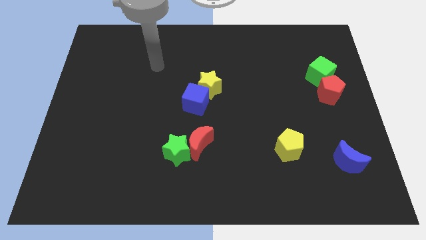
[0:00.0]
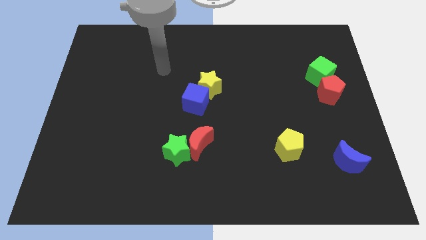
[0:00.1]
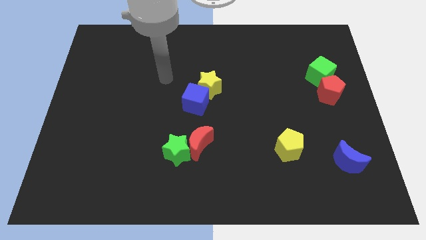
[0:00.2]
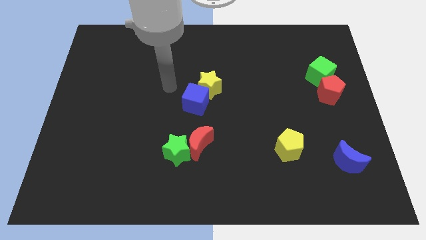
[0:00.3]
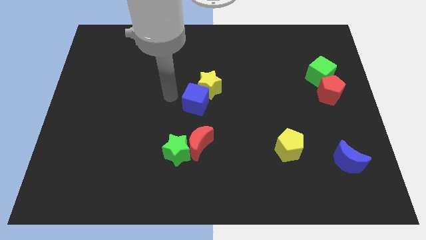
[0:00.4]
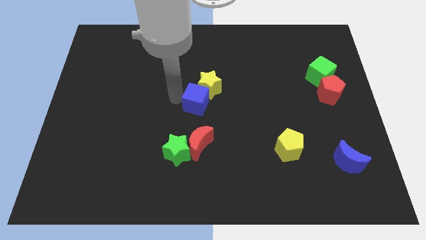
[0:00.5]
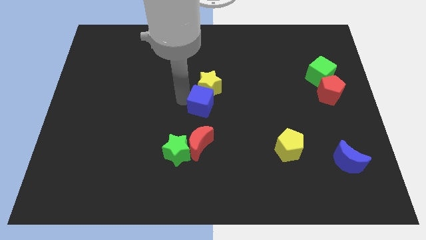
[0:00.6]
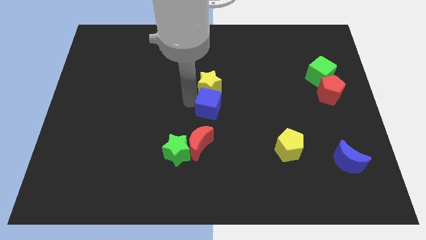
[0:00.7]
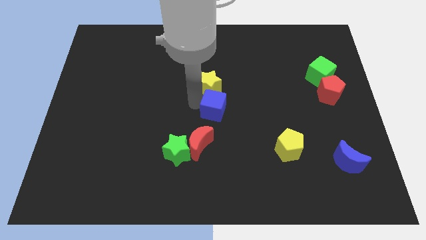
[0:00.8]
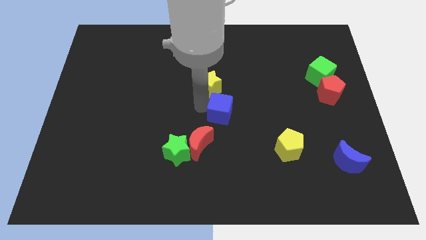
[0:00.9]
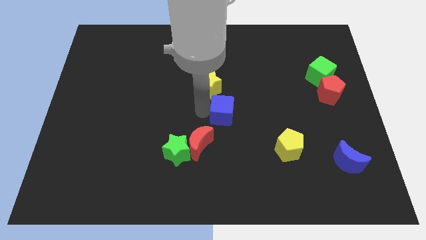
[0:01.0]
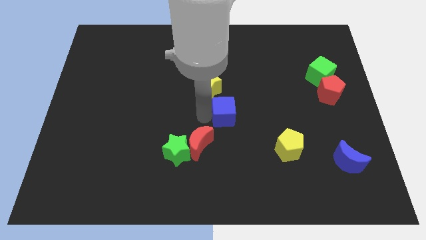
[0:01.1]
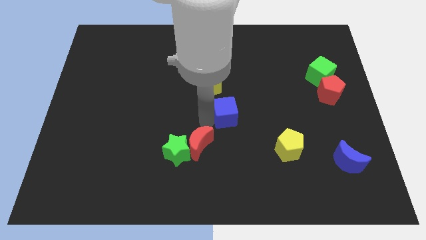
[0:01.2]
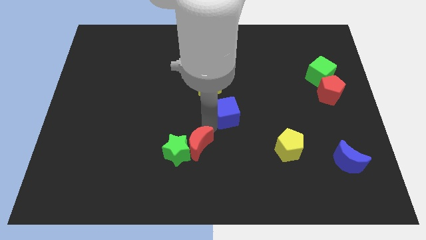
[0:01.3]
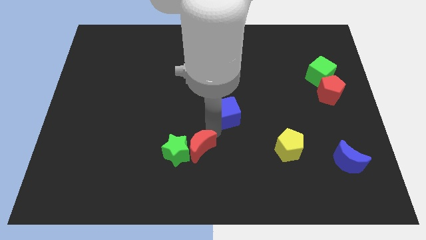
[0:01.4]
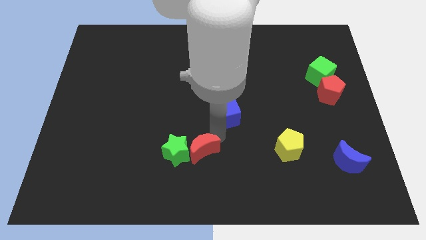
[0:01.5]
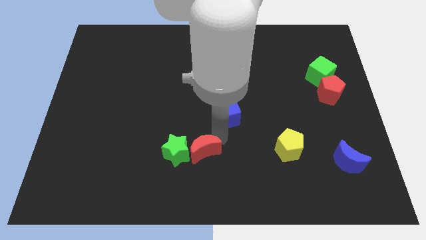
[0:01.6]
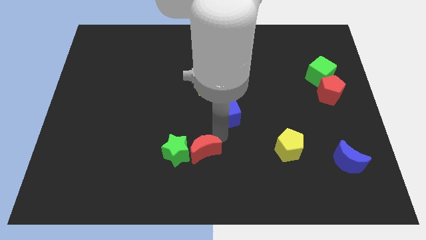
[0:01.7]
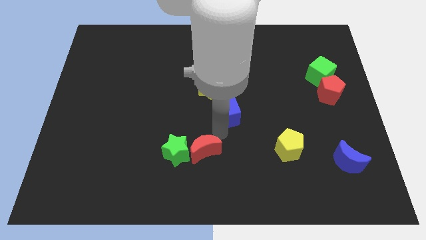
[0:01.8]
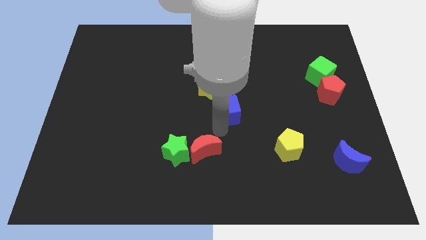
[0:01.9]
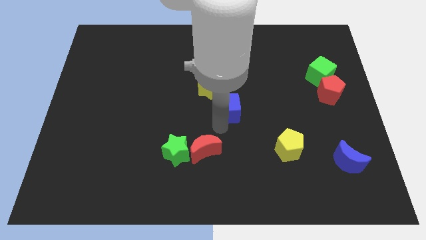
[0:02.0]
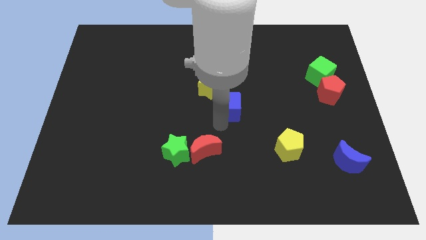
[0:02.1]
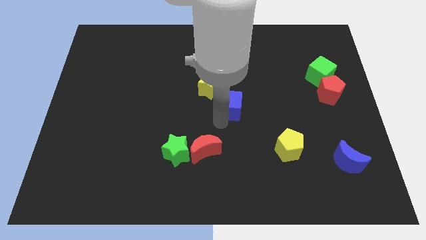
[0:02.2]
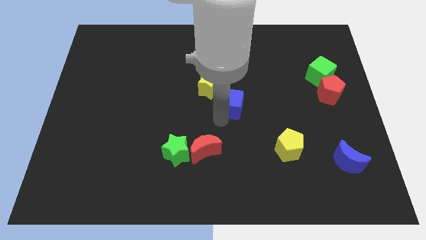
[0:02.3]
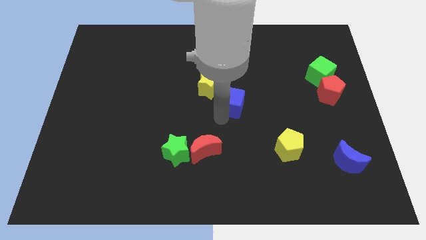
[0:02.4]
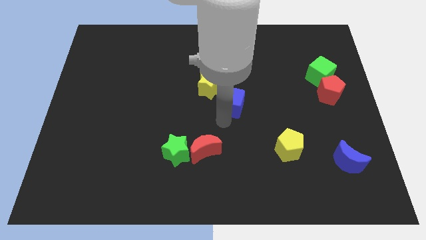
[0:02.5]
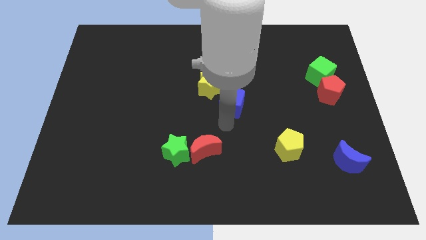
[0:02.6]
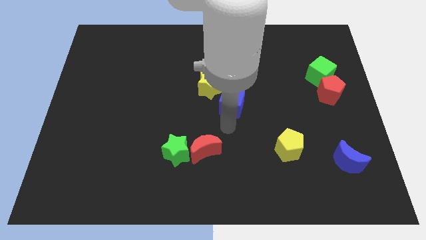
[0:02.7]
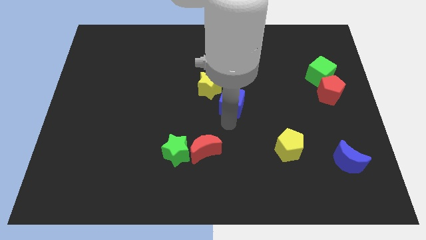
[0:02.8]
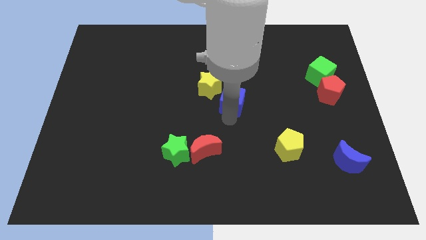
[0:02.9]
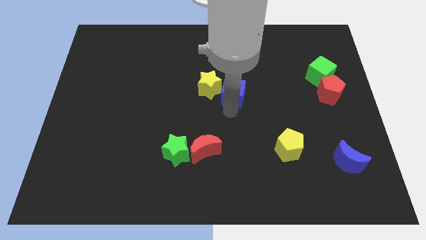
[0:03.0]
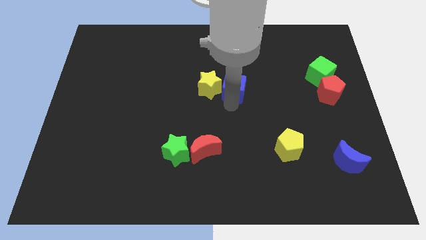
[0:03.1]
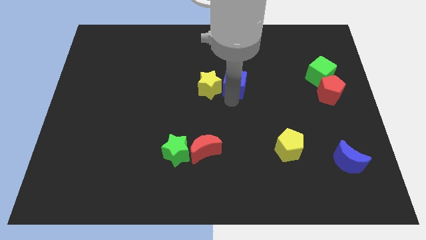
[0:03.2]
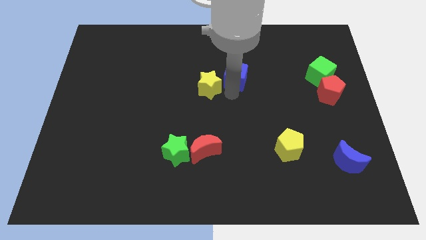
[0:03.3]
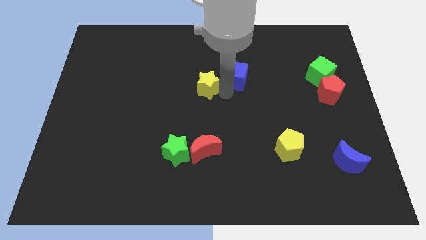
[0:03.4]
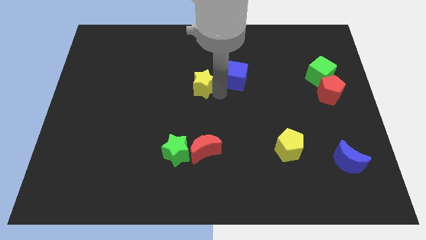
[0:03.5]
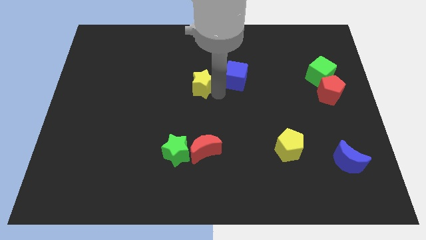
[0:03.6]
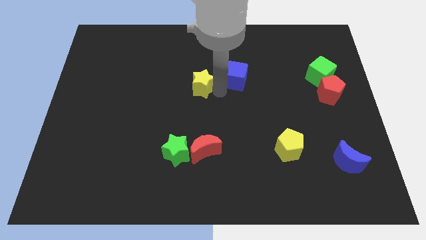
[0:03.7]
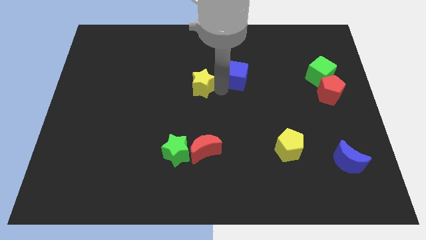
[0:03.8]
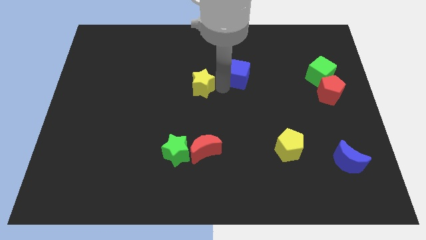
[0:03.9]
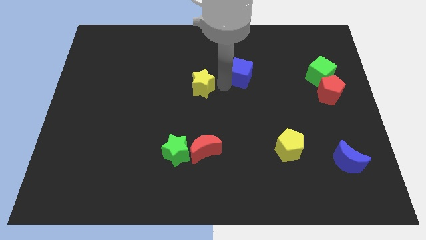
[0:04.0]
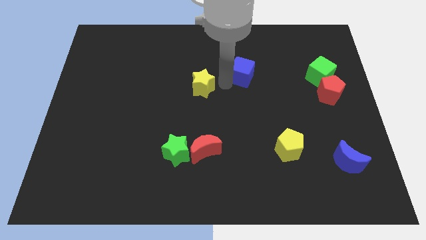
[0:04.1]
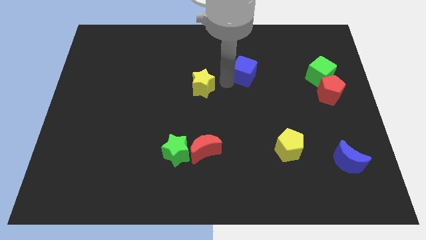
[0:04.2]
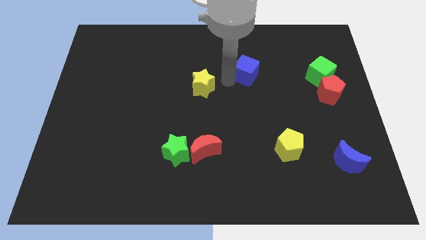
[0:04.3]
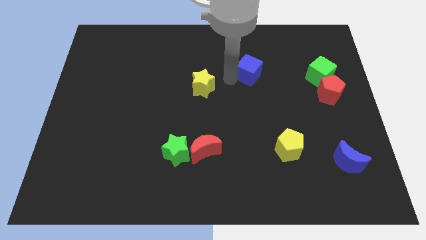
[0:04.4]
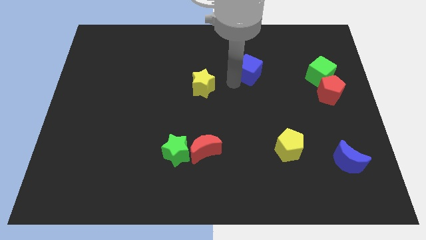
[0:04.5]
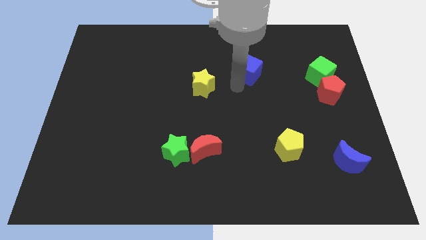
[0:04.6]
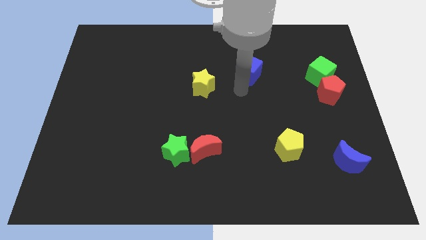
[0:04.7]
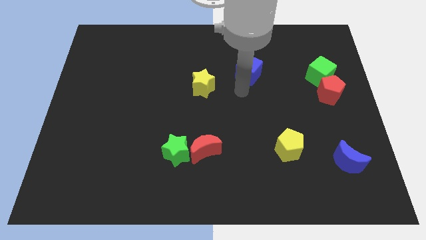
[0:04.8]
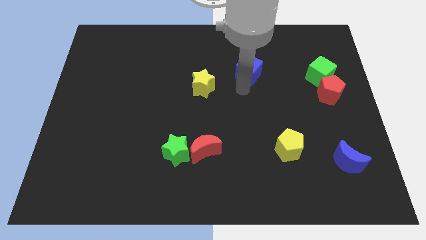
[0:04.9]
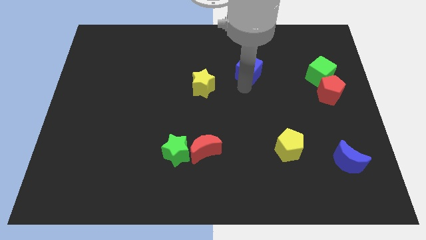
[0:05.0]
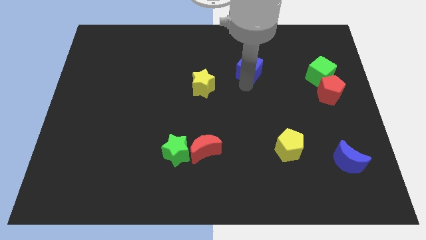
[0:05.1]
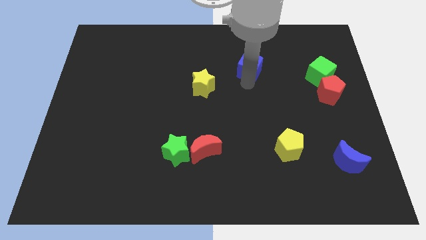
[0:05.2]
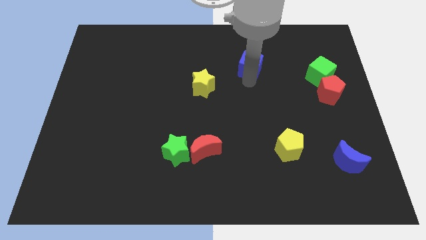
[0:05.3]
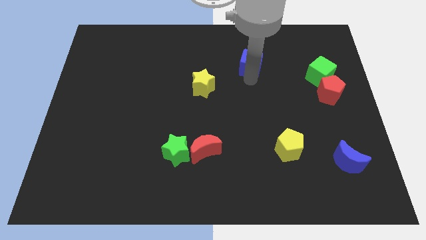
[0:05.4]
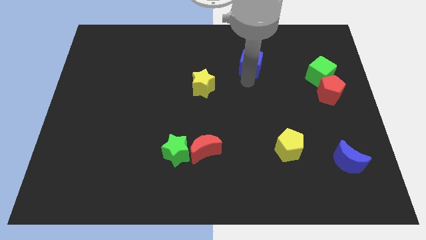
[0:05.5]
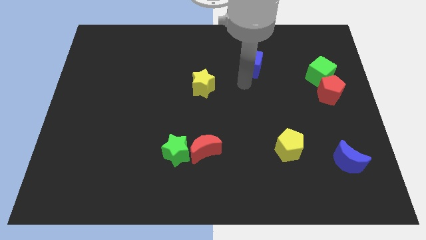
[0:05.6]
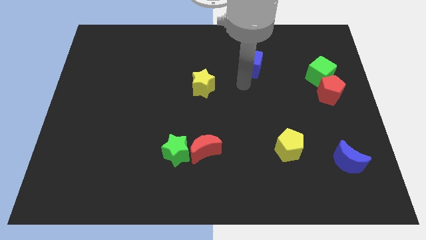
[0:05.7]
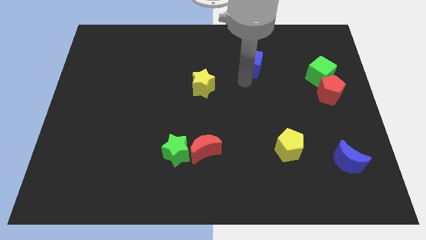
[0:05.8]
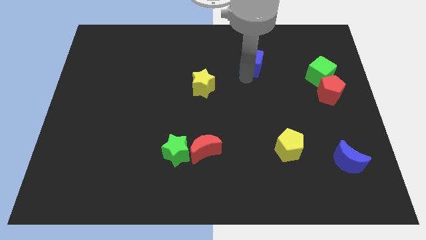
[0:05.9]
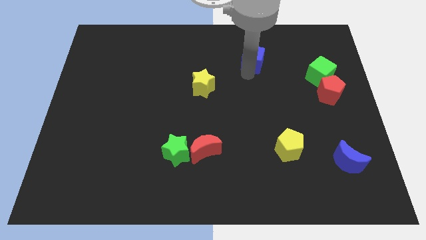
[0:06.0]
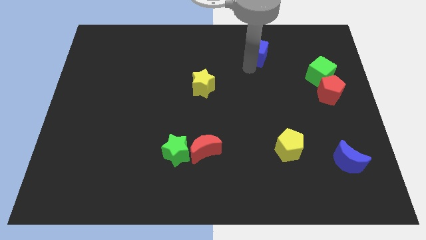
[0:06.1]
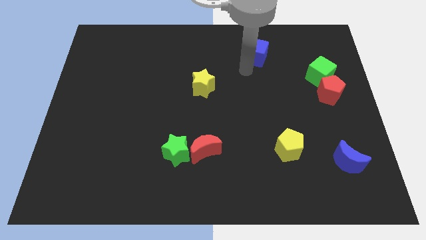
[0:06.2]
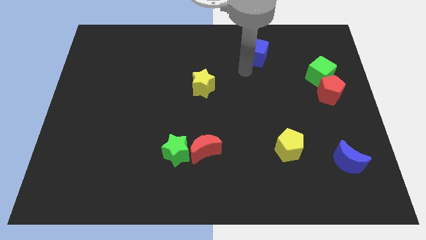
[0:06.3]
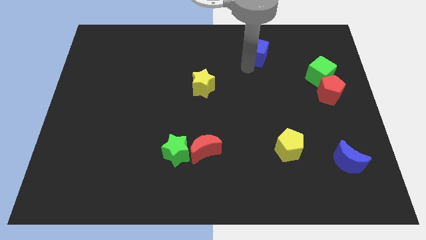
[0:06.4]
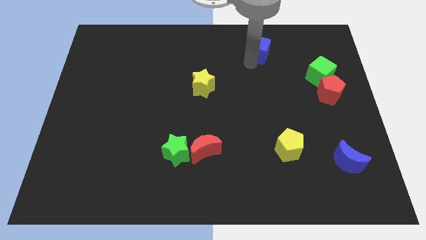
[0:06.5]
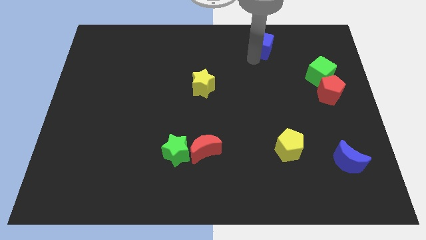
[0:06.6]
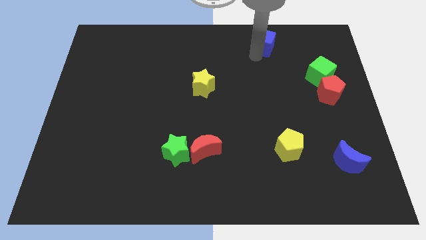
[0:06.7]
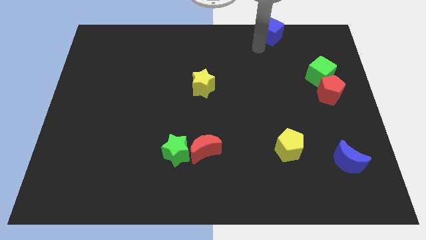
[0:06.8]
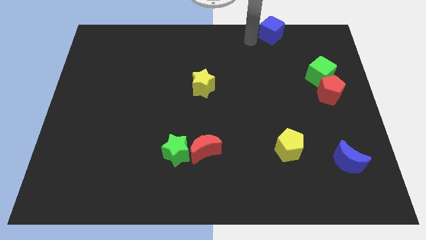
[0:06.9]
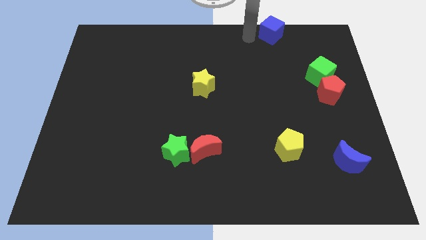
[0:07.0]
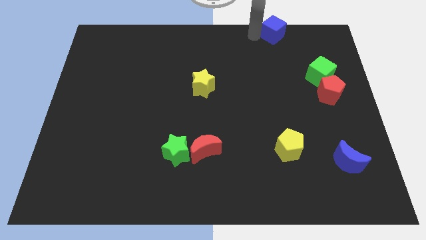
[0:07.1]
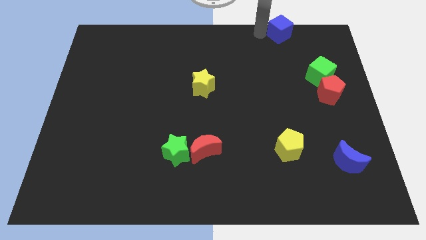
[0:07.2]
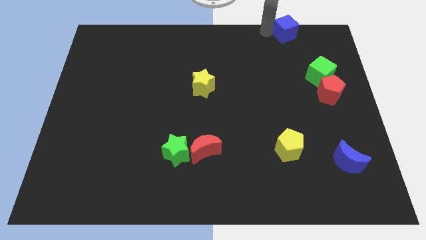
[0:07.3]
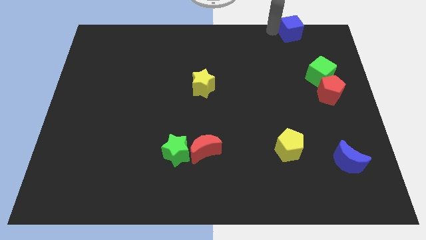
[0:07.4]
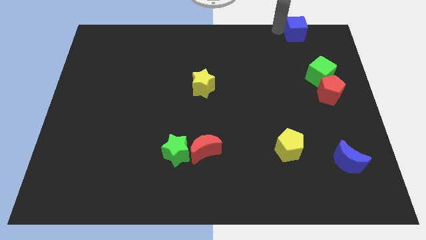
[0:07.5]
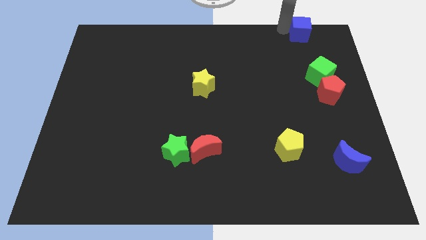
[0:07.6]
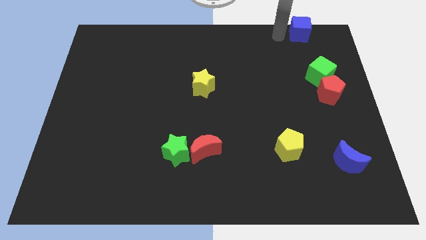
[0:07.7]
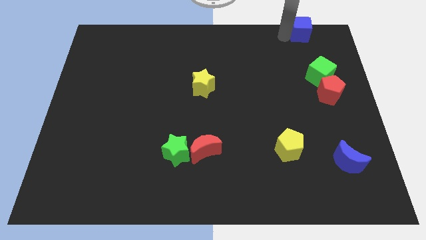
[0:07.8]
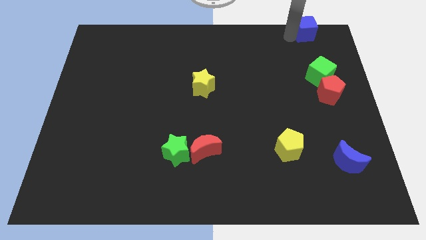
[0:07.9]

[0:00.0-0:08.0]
push the blue cube to the top right corner
